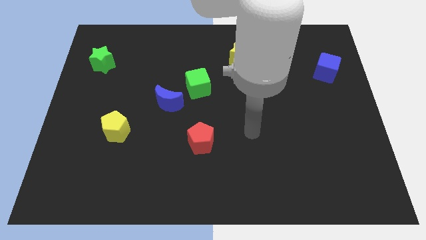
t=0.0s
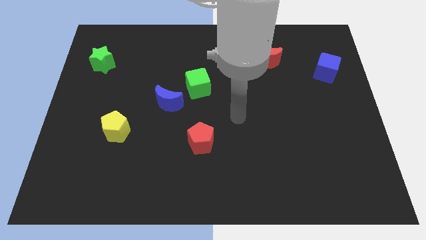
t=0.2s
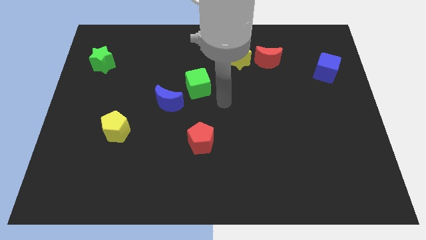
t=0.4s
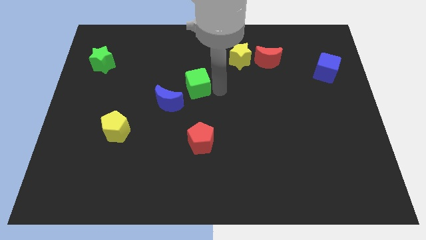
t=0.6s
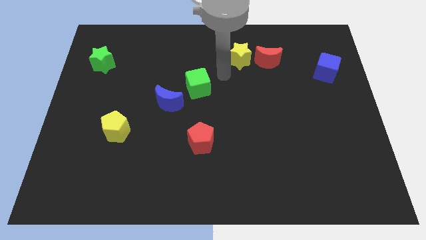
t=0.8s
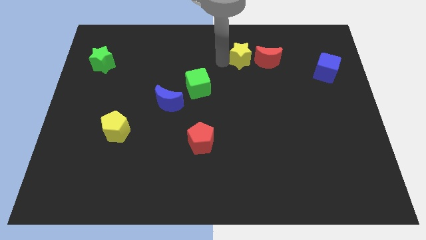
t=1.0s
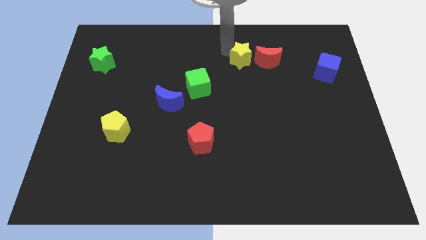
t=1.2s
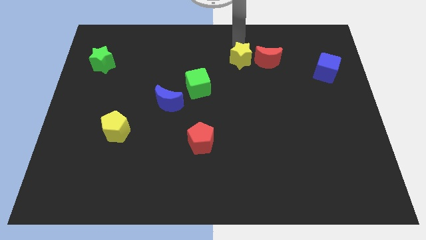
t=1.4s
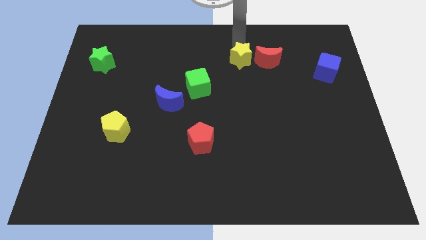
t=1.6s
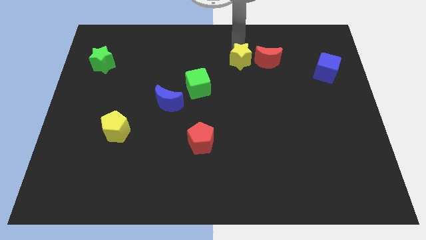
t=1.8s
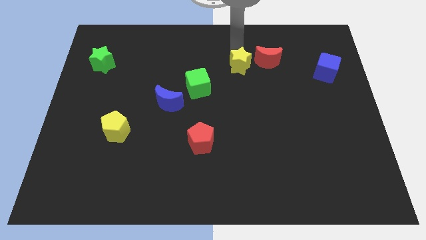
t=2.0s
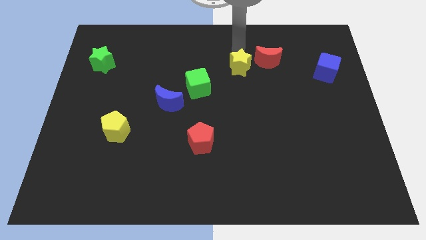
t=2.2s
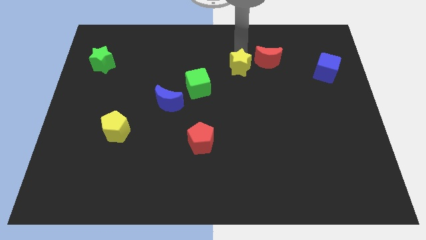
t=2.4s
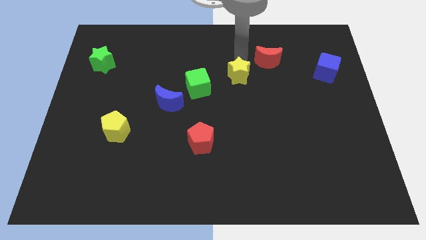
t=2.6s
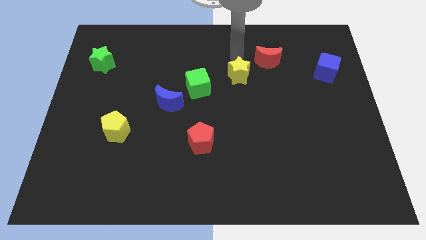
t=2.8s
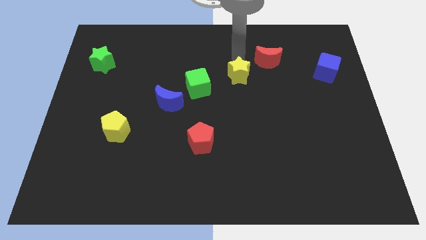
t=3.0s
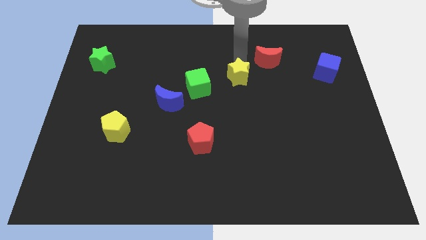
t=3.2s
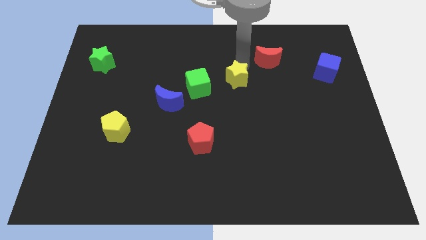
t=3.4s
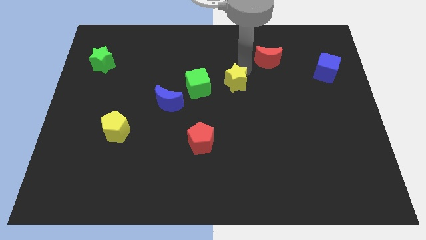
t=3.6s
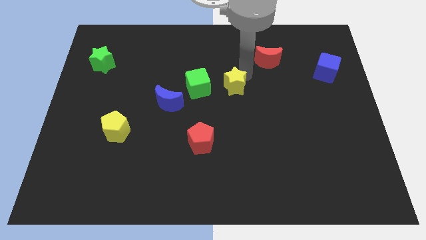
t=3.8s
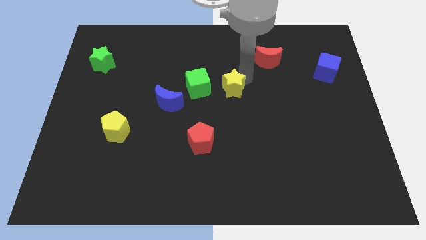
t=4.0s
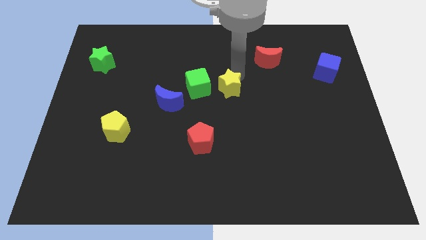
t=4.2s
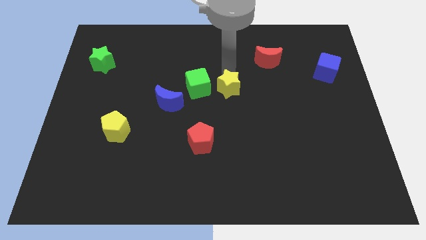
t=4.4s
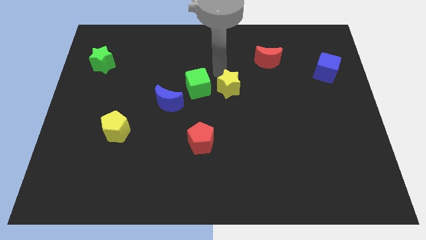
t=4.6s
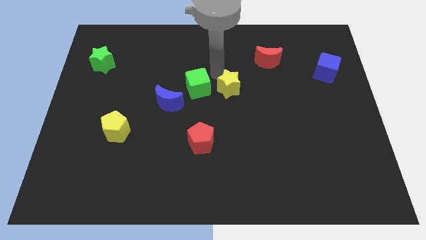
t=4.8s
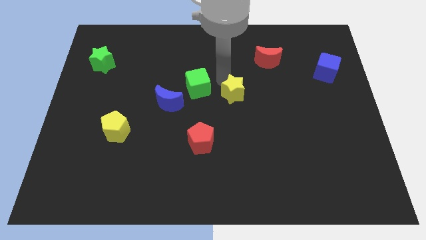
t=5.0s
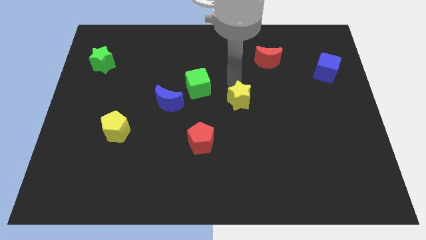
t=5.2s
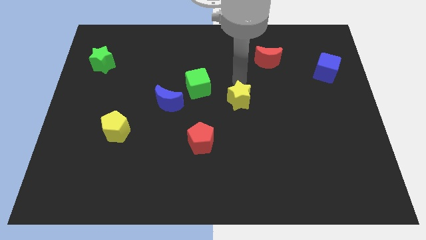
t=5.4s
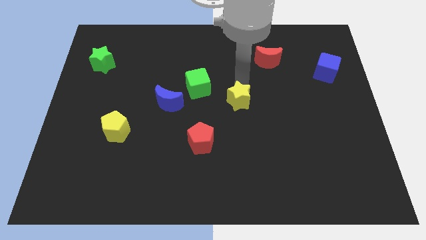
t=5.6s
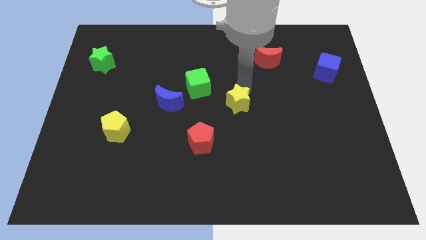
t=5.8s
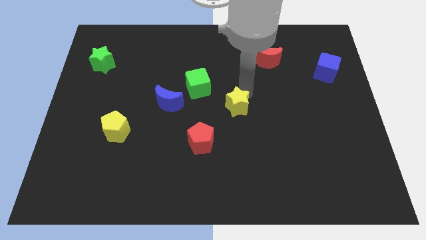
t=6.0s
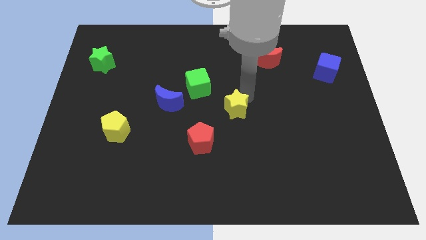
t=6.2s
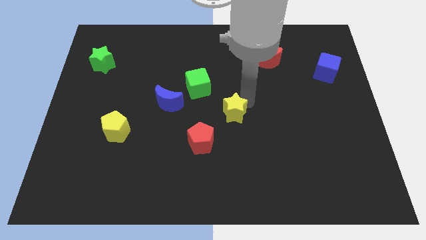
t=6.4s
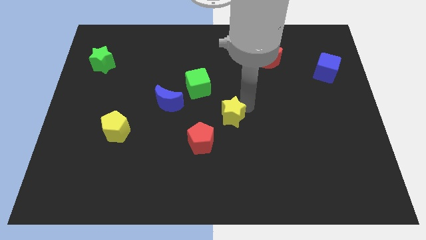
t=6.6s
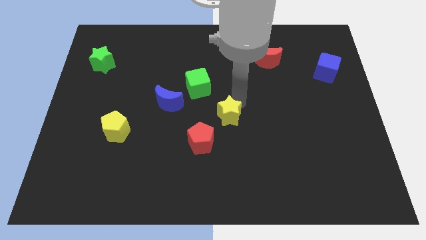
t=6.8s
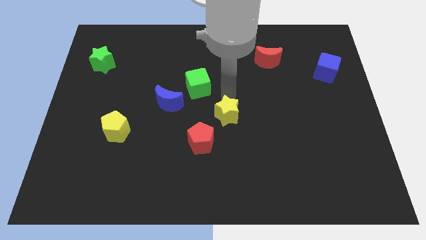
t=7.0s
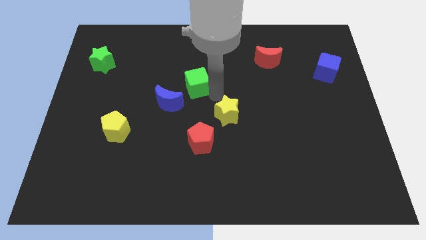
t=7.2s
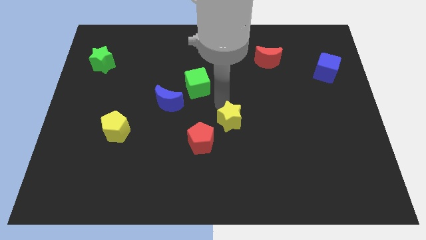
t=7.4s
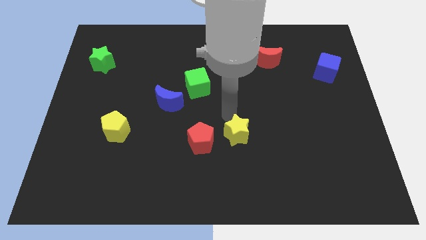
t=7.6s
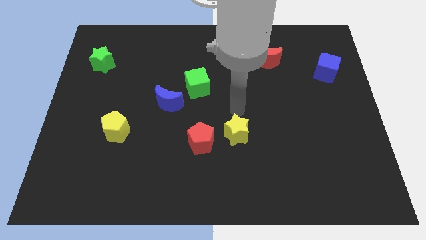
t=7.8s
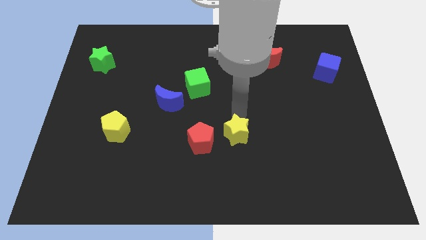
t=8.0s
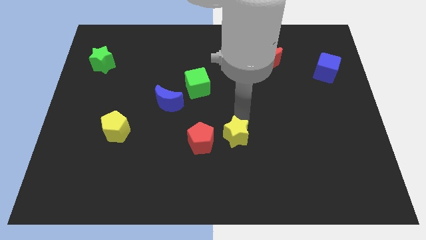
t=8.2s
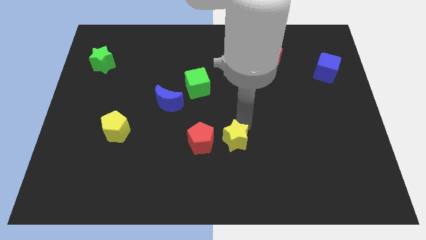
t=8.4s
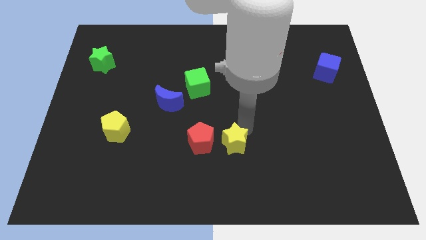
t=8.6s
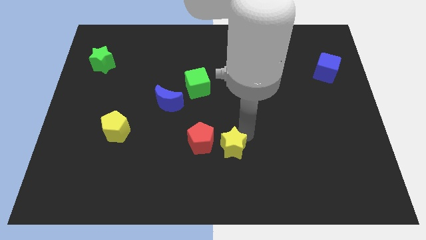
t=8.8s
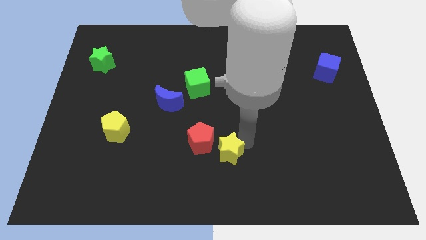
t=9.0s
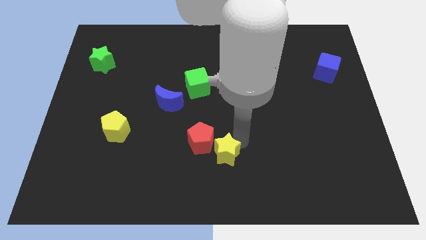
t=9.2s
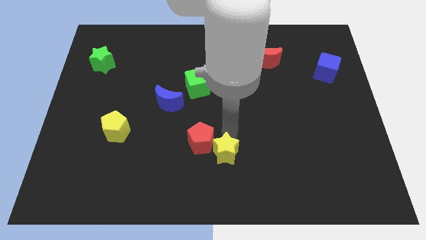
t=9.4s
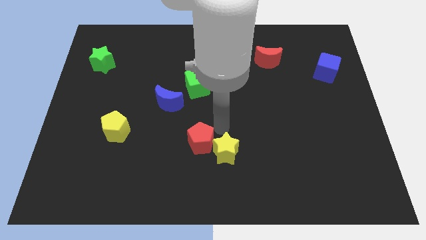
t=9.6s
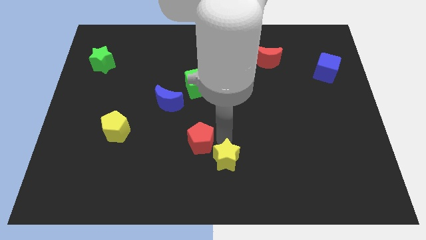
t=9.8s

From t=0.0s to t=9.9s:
put the yellow star to the bottom

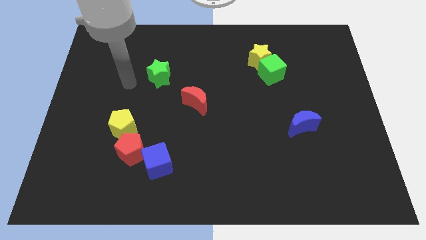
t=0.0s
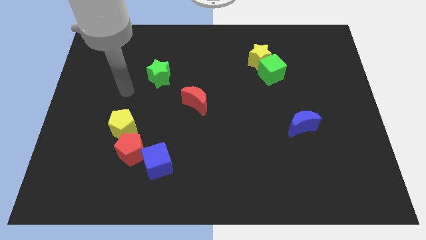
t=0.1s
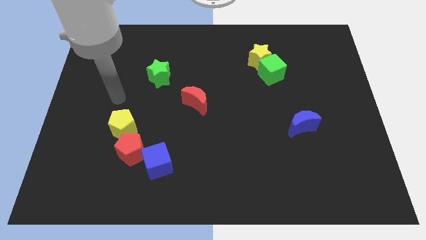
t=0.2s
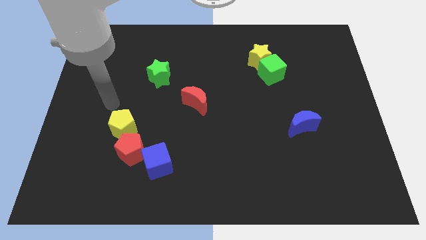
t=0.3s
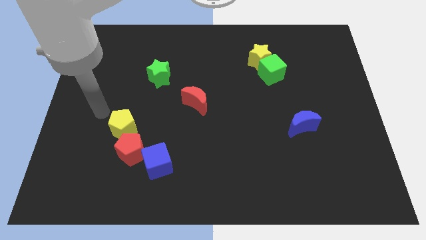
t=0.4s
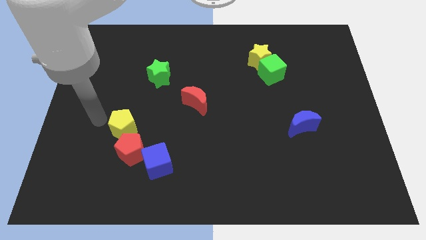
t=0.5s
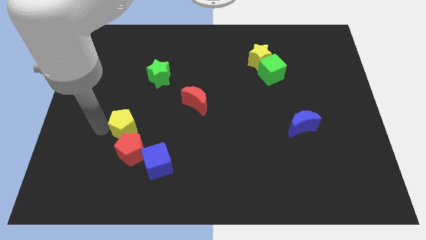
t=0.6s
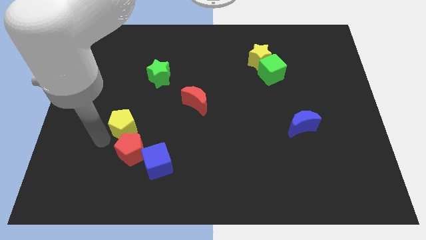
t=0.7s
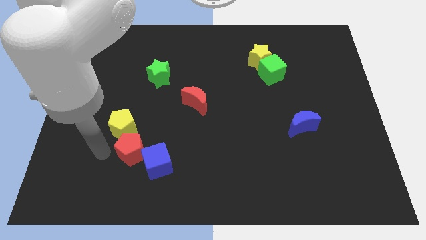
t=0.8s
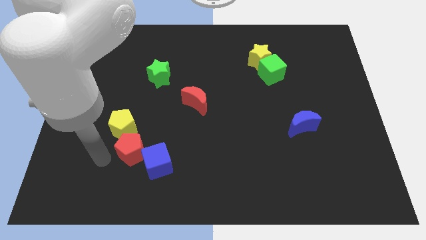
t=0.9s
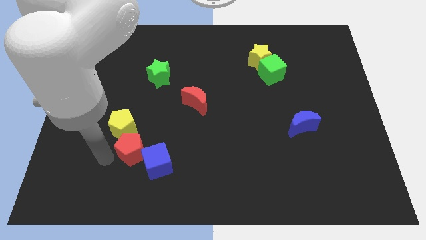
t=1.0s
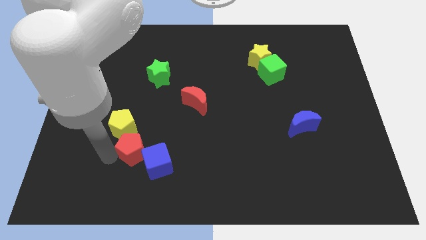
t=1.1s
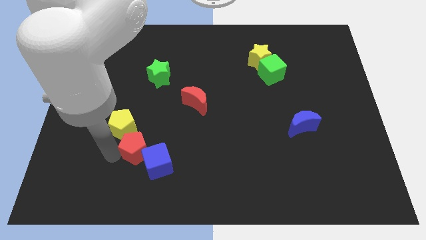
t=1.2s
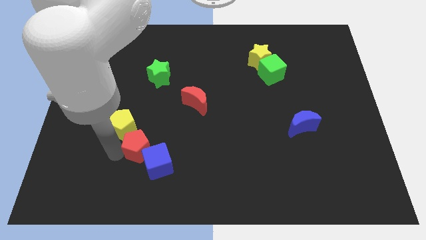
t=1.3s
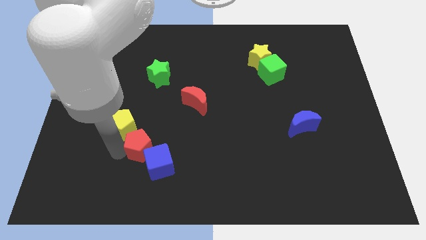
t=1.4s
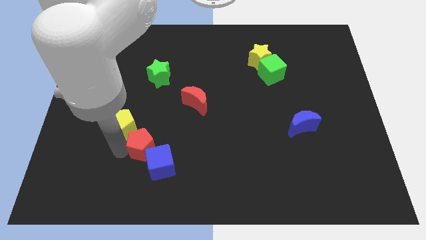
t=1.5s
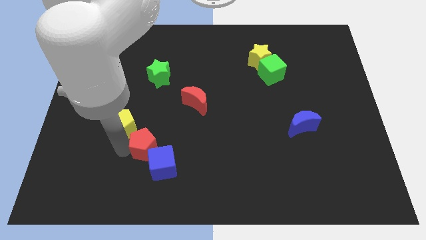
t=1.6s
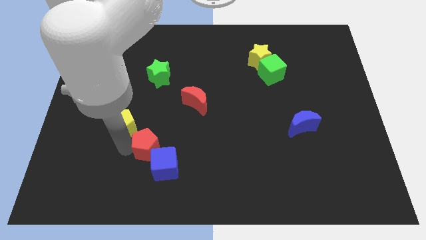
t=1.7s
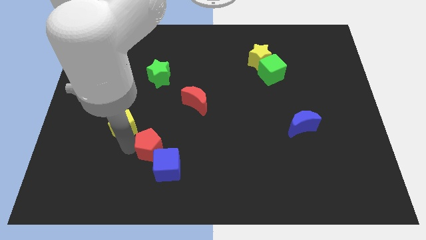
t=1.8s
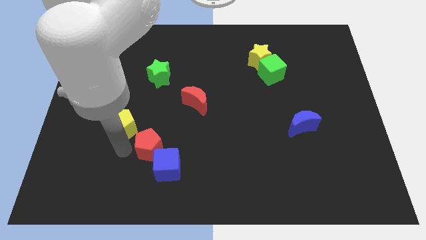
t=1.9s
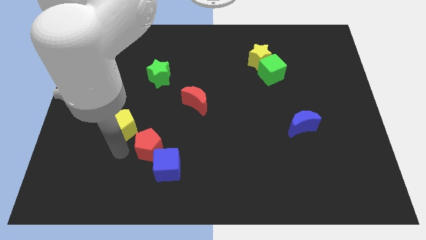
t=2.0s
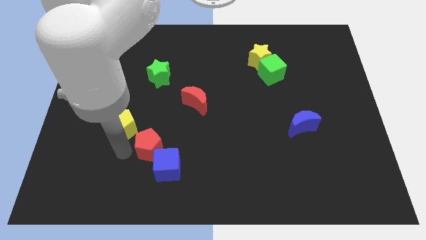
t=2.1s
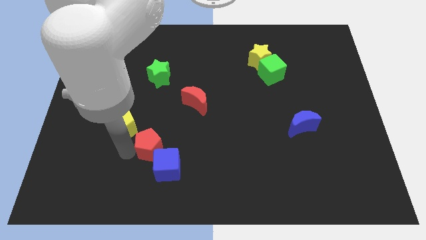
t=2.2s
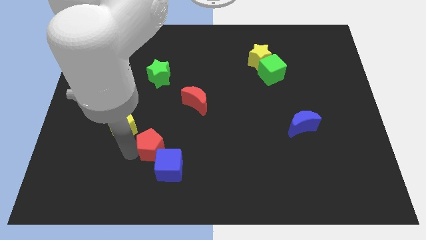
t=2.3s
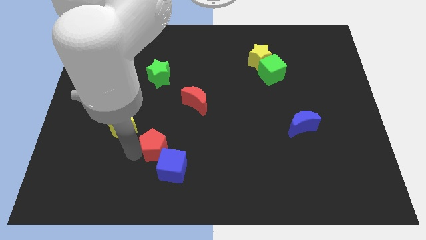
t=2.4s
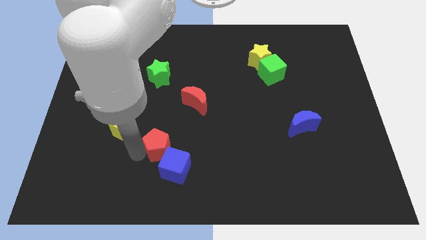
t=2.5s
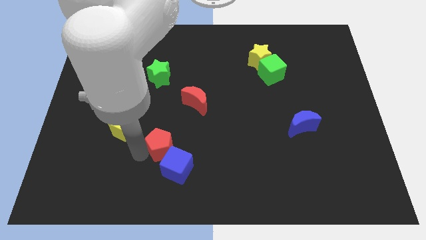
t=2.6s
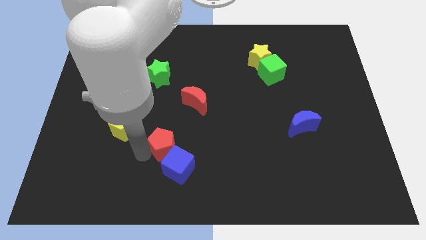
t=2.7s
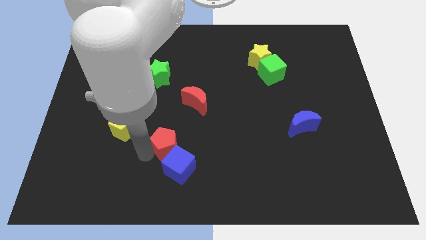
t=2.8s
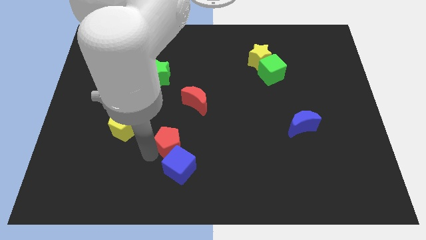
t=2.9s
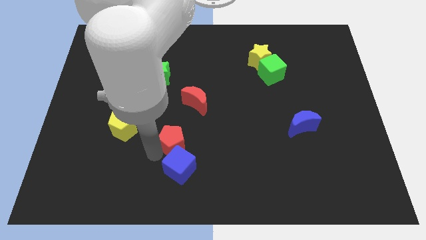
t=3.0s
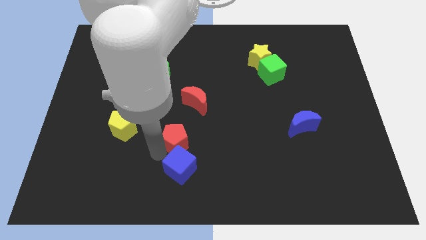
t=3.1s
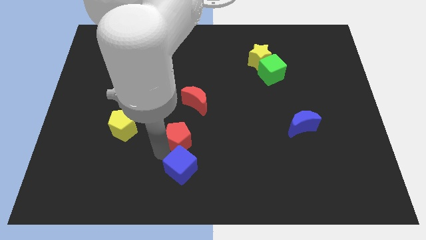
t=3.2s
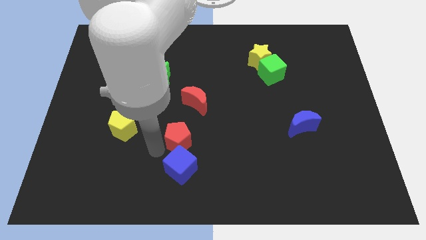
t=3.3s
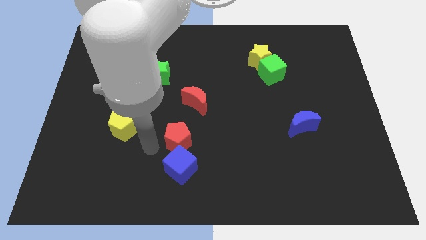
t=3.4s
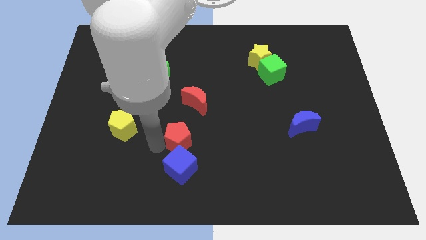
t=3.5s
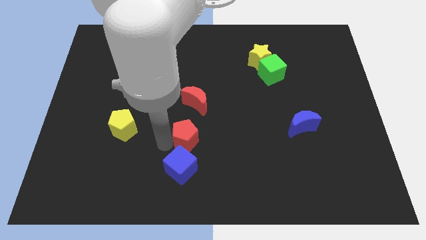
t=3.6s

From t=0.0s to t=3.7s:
move the red pentagon to the center
